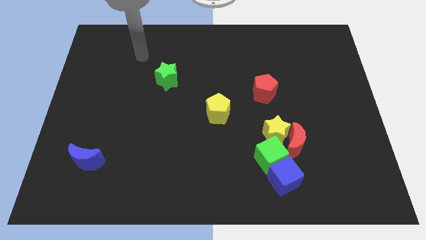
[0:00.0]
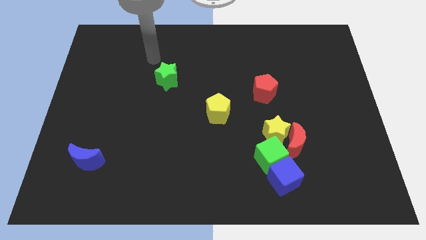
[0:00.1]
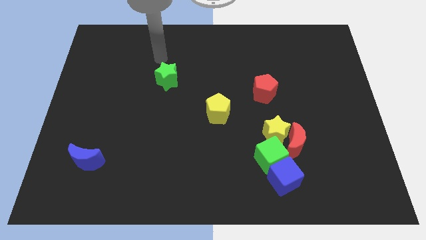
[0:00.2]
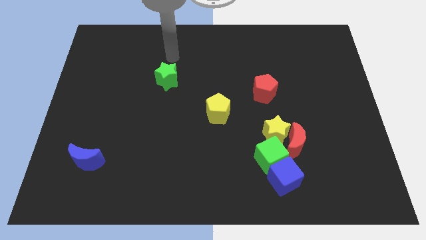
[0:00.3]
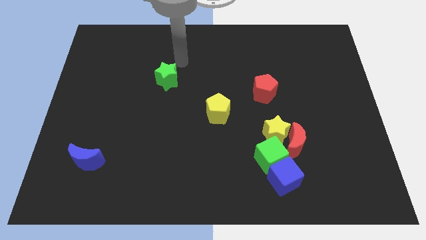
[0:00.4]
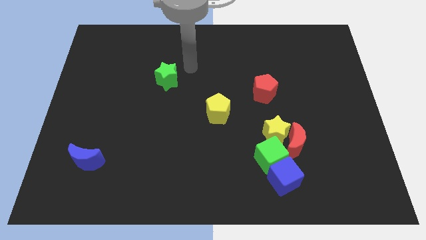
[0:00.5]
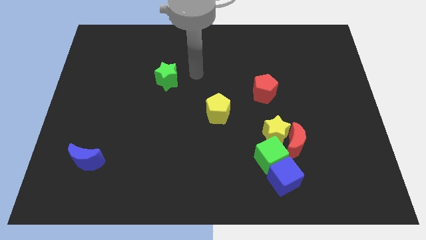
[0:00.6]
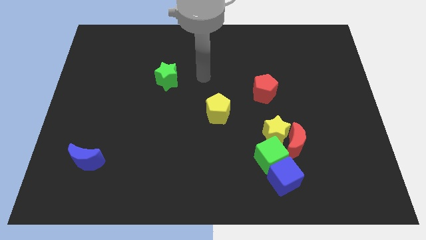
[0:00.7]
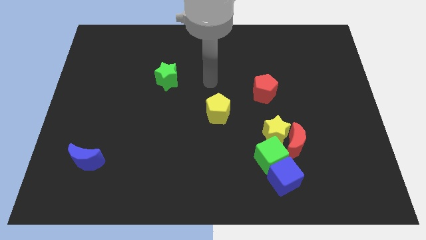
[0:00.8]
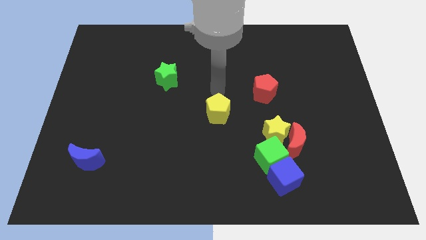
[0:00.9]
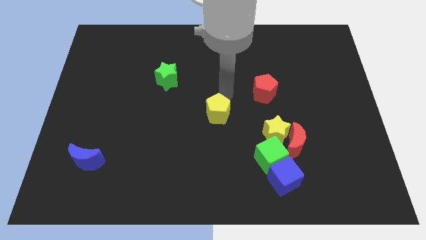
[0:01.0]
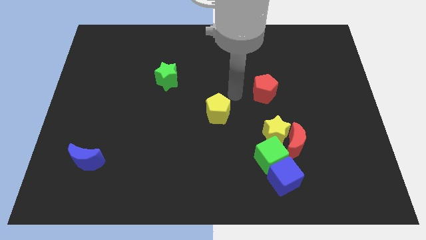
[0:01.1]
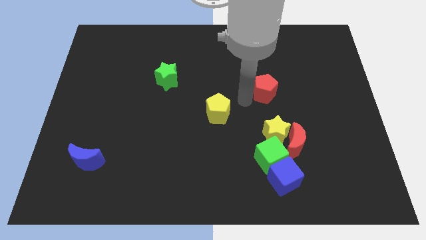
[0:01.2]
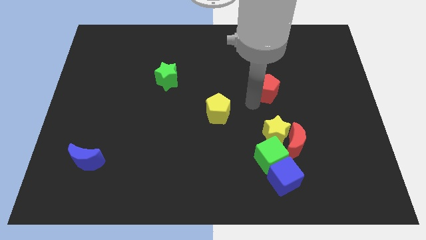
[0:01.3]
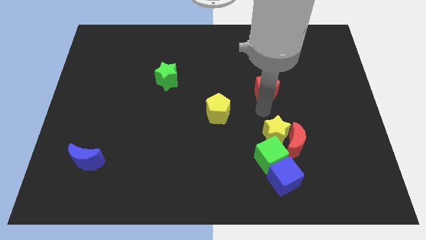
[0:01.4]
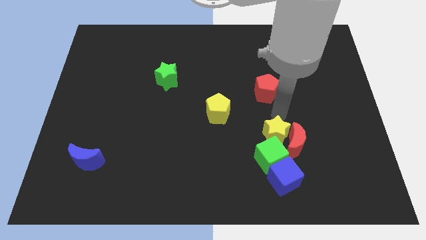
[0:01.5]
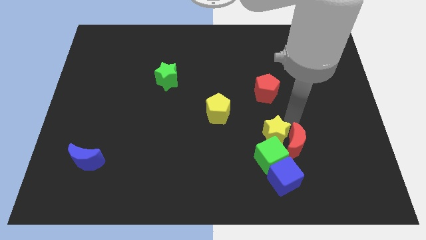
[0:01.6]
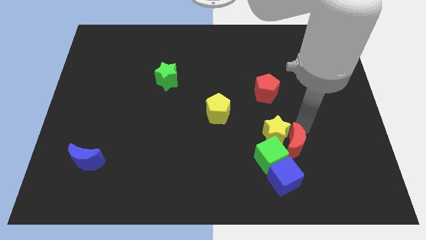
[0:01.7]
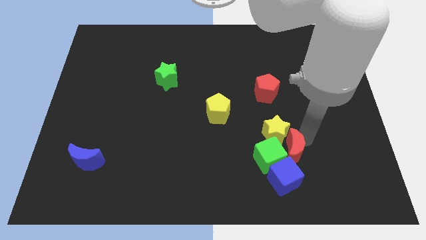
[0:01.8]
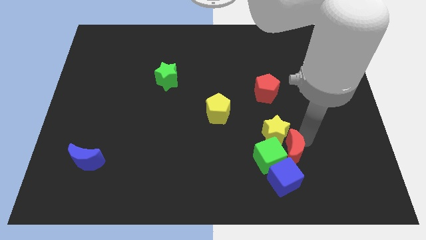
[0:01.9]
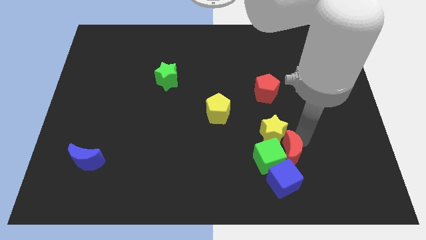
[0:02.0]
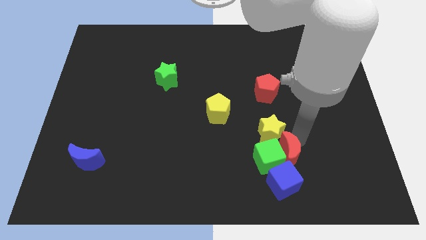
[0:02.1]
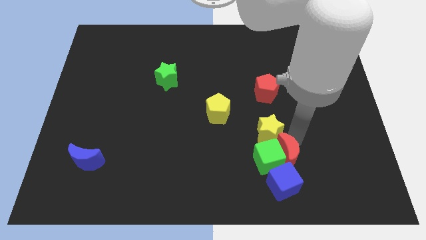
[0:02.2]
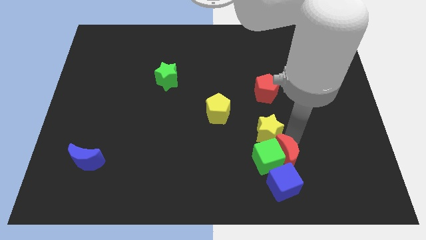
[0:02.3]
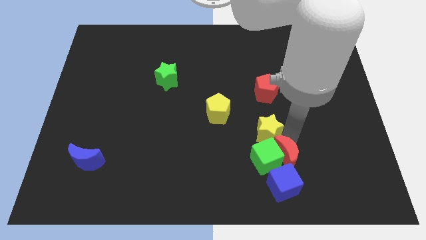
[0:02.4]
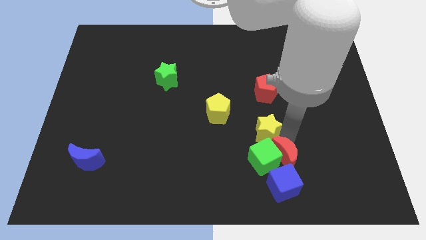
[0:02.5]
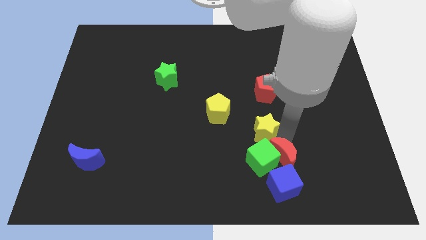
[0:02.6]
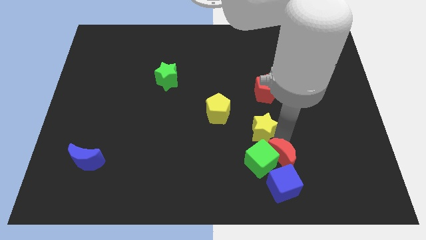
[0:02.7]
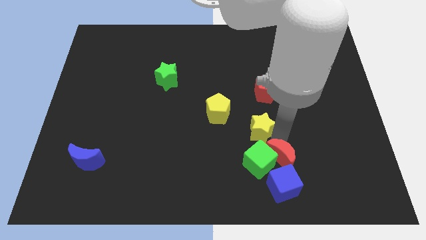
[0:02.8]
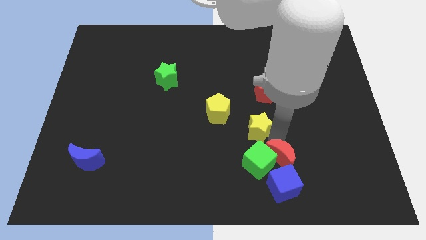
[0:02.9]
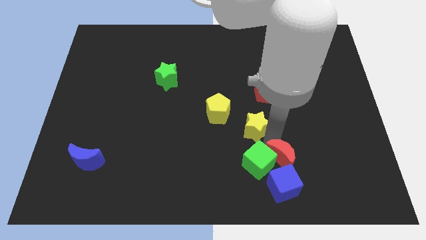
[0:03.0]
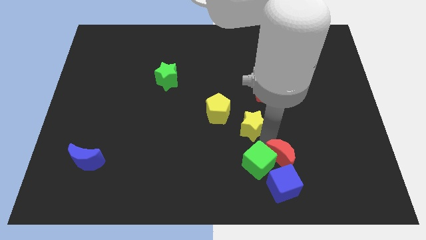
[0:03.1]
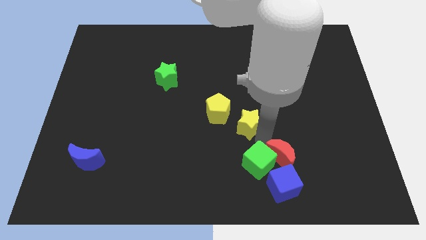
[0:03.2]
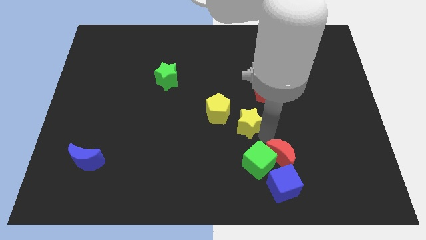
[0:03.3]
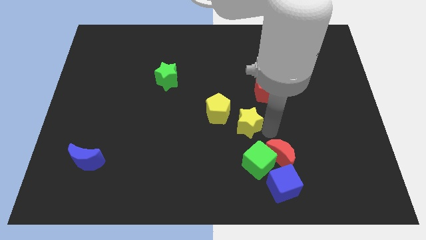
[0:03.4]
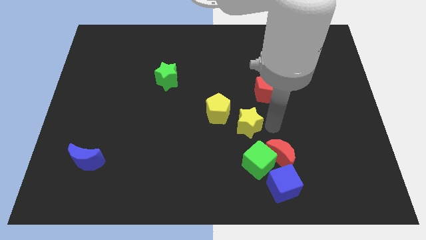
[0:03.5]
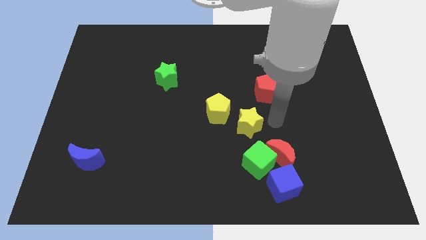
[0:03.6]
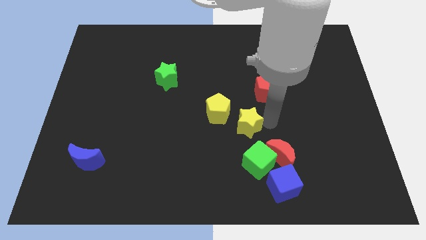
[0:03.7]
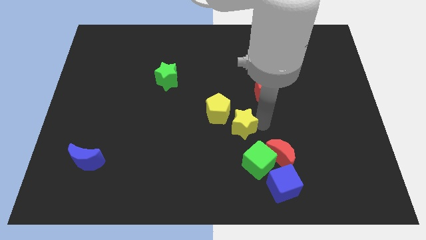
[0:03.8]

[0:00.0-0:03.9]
slide the yellow star a bit left

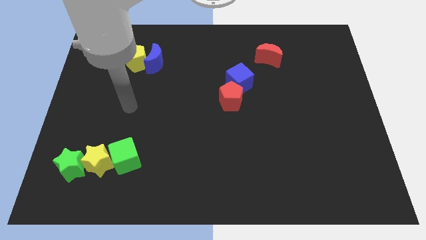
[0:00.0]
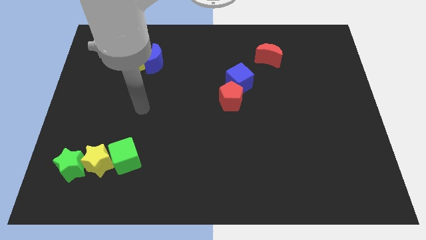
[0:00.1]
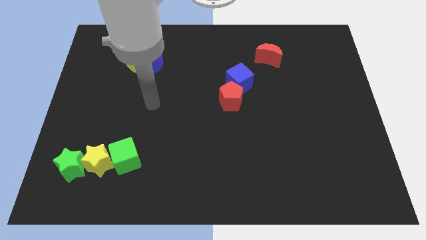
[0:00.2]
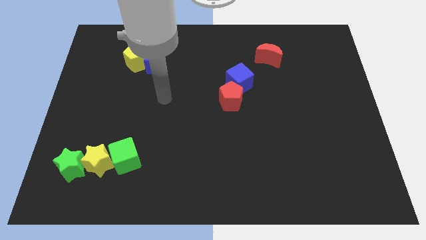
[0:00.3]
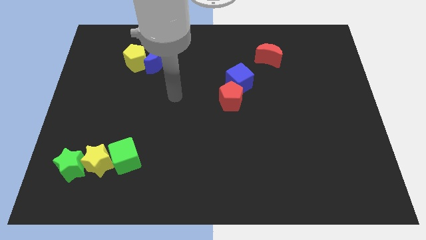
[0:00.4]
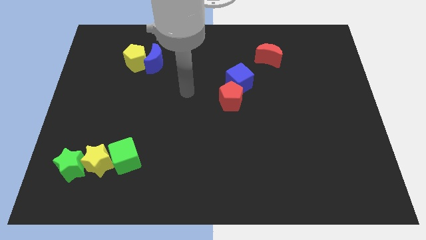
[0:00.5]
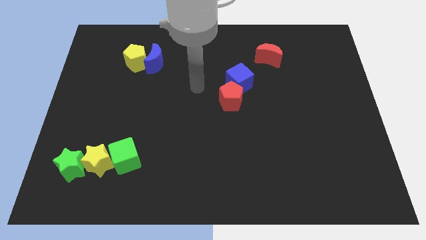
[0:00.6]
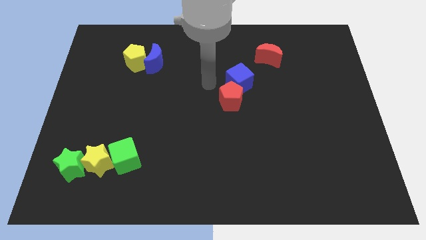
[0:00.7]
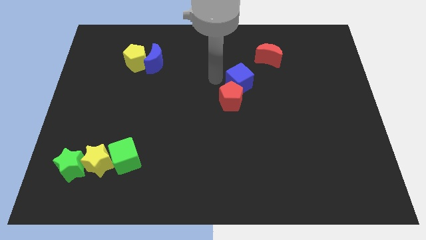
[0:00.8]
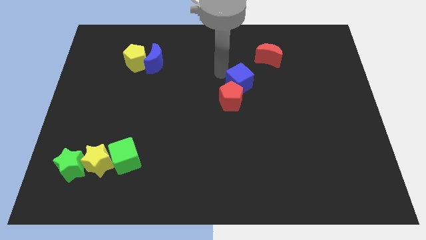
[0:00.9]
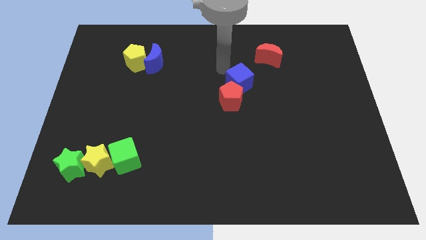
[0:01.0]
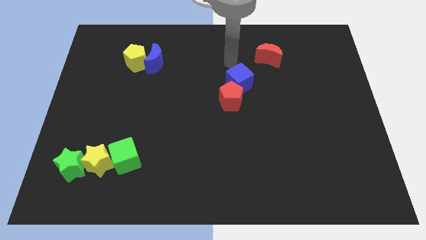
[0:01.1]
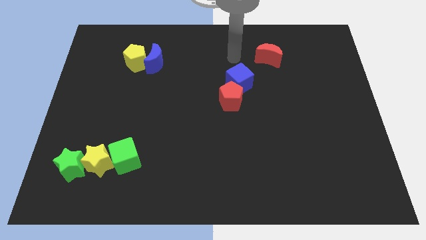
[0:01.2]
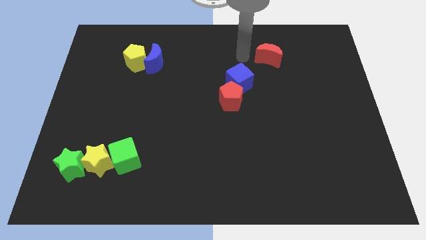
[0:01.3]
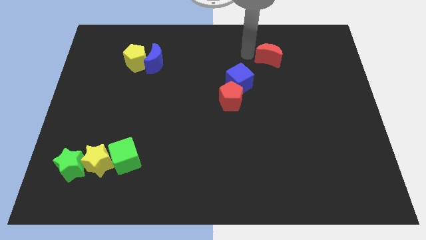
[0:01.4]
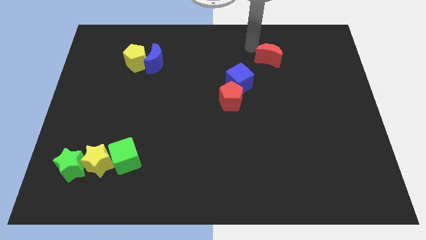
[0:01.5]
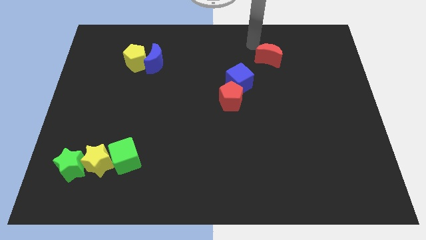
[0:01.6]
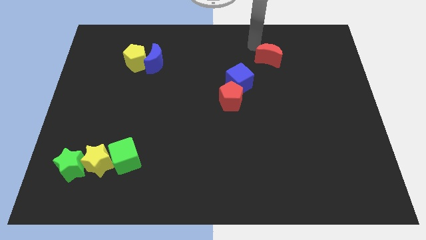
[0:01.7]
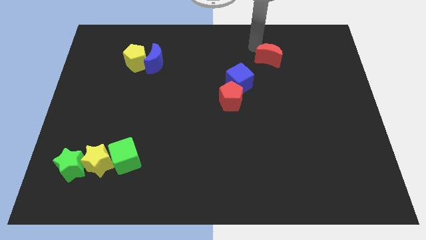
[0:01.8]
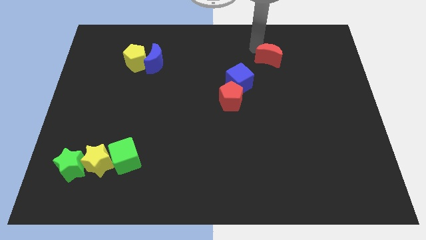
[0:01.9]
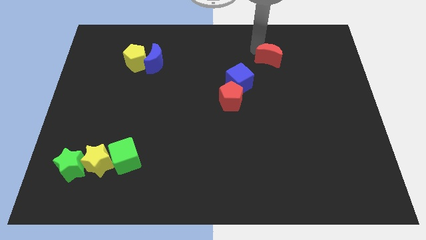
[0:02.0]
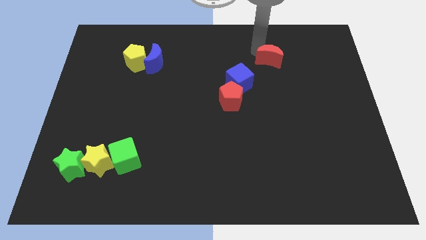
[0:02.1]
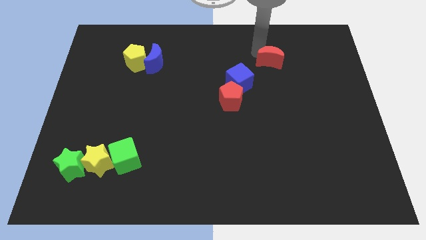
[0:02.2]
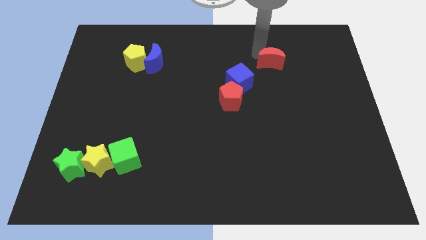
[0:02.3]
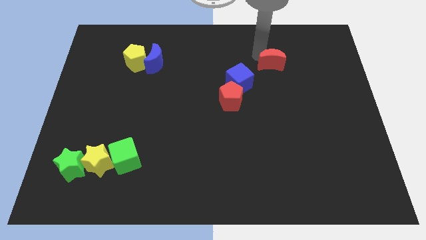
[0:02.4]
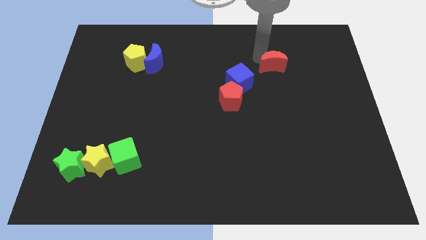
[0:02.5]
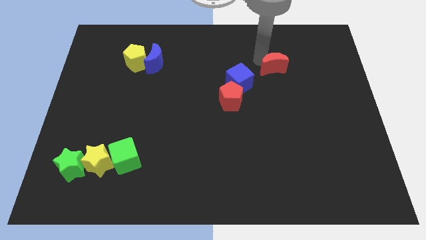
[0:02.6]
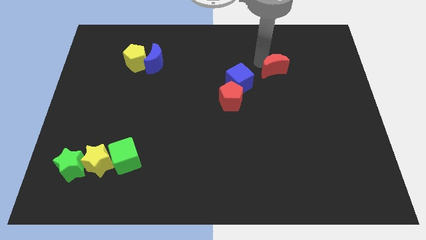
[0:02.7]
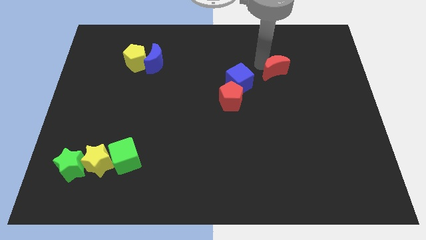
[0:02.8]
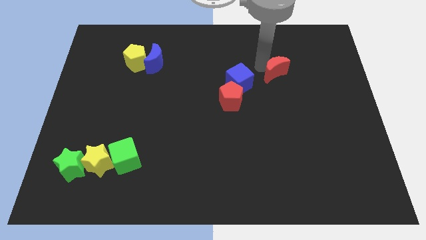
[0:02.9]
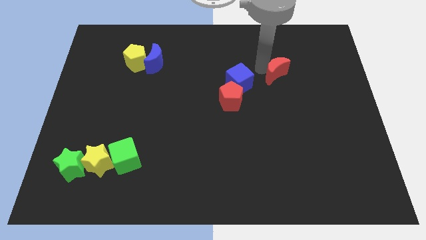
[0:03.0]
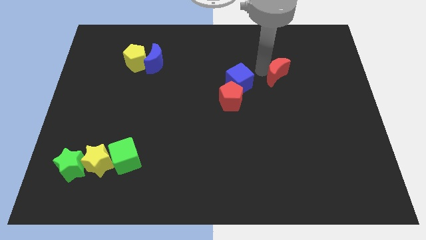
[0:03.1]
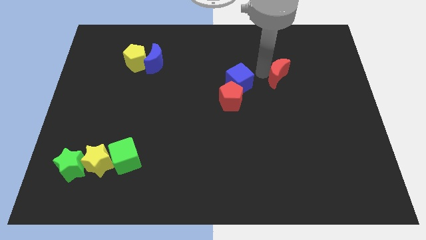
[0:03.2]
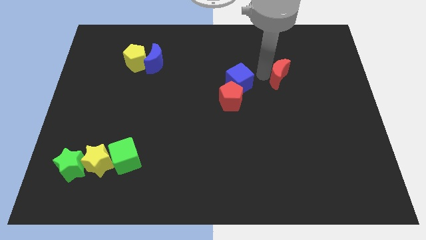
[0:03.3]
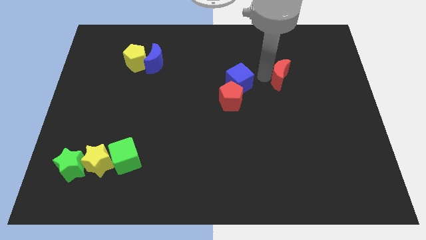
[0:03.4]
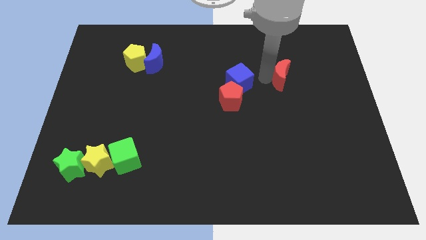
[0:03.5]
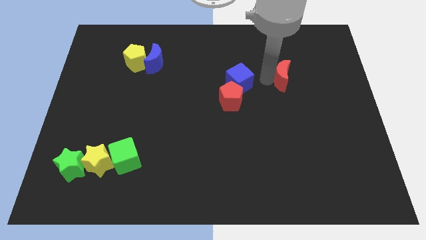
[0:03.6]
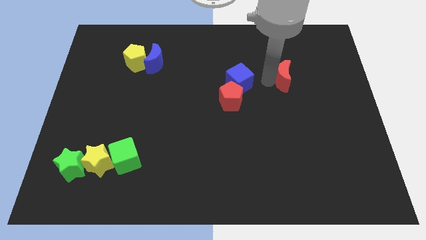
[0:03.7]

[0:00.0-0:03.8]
slide the red moon diagonally downwards and to the right a little

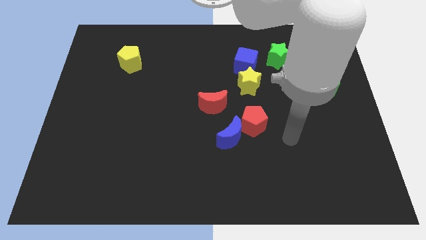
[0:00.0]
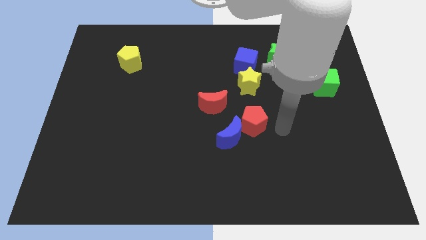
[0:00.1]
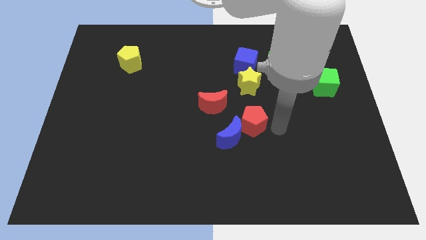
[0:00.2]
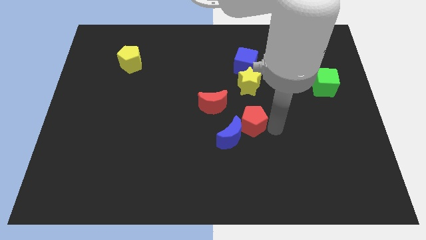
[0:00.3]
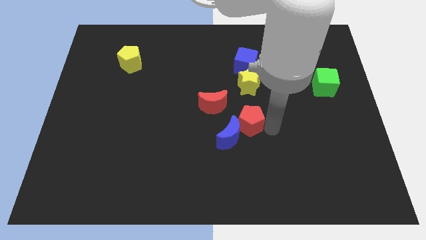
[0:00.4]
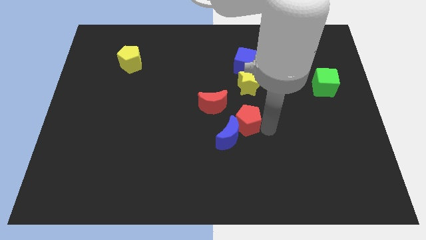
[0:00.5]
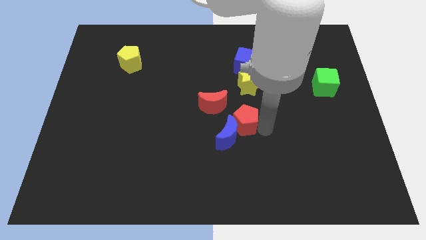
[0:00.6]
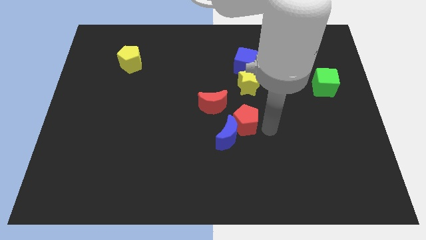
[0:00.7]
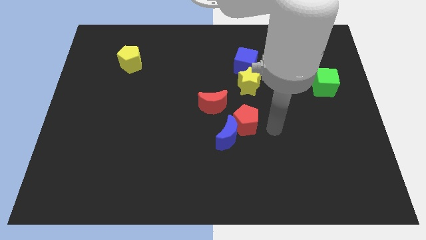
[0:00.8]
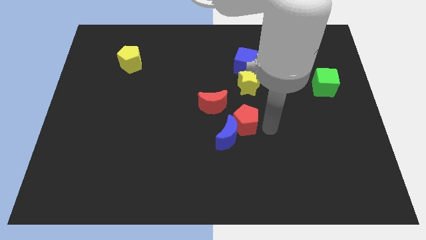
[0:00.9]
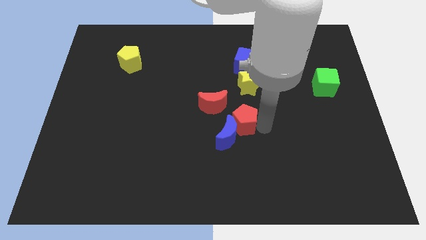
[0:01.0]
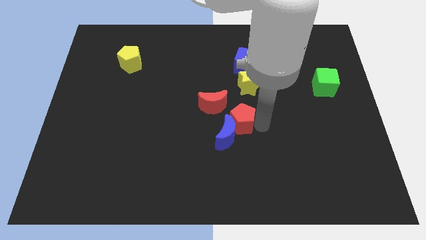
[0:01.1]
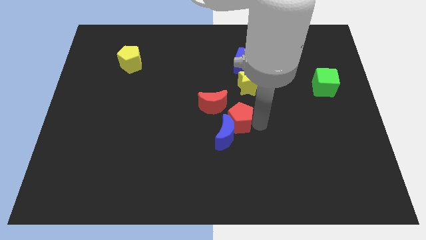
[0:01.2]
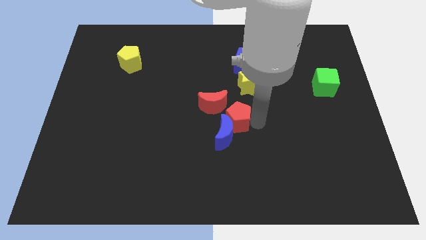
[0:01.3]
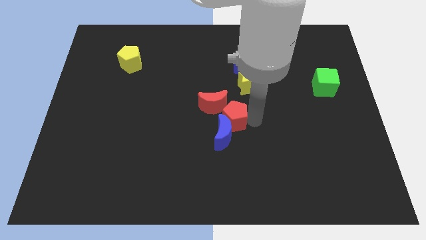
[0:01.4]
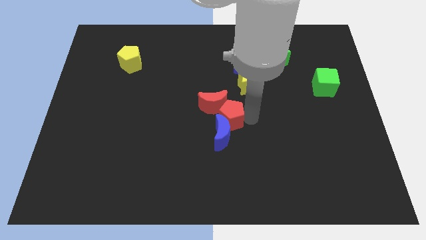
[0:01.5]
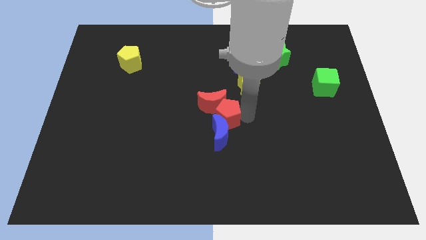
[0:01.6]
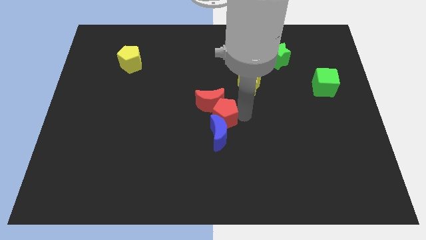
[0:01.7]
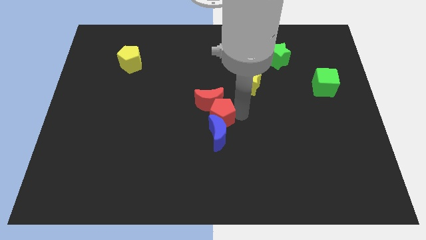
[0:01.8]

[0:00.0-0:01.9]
slightly slide the red pentagon to the left
